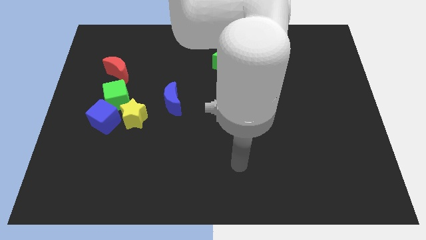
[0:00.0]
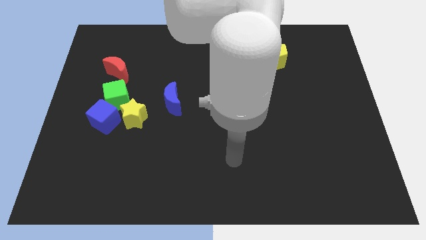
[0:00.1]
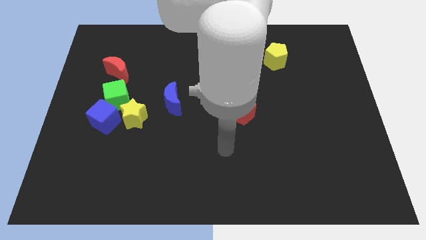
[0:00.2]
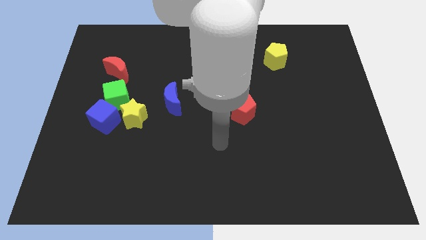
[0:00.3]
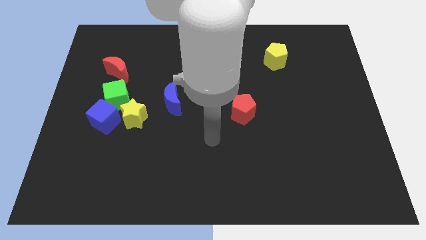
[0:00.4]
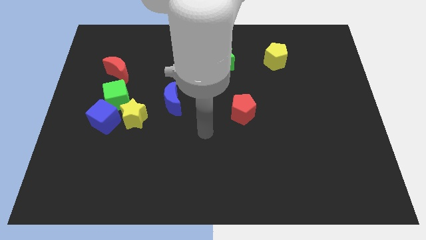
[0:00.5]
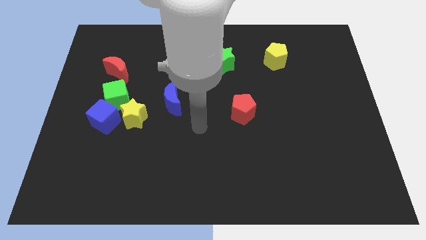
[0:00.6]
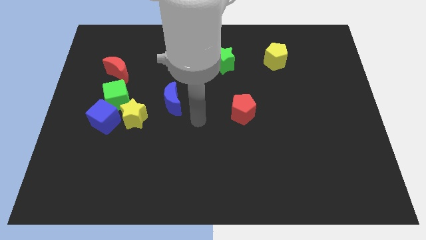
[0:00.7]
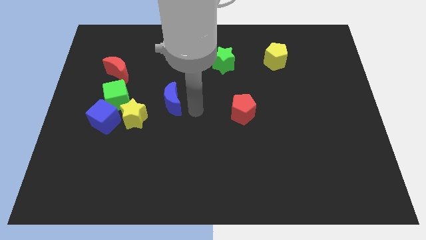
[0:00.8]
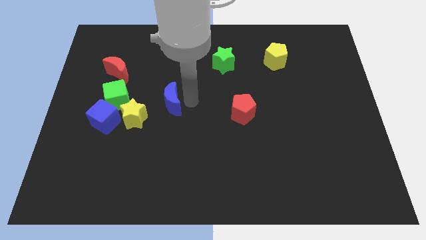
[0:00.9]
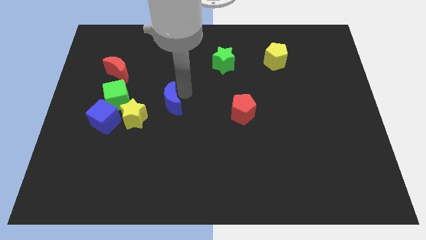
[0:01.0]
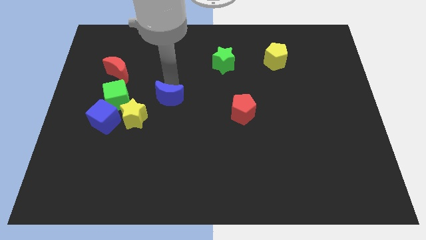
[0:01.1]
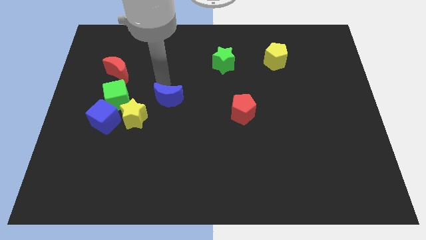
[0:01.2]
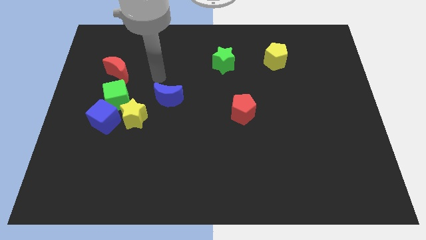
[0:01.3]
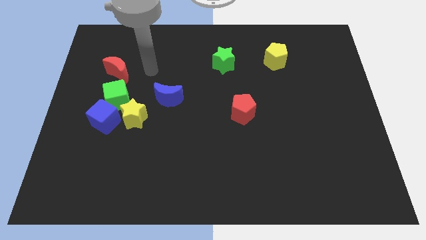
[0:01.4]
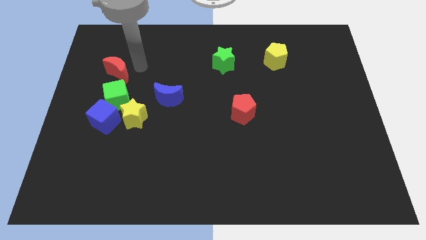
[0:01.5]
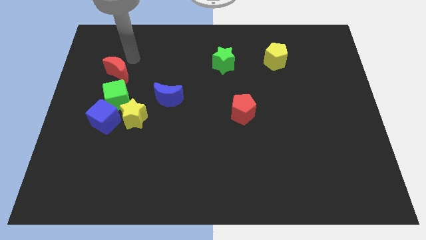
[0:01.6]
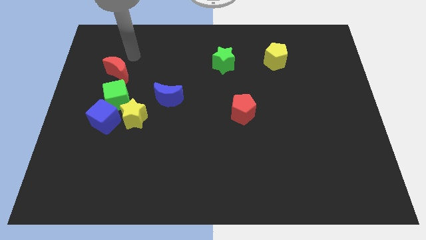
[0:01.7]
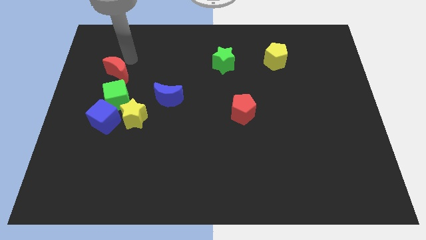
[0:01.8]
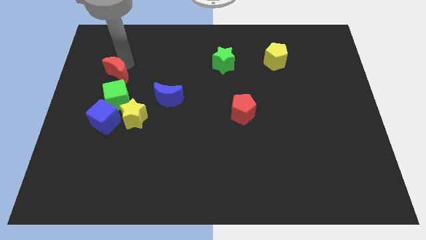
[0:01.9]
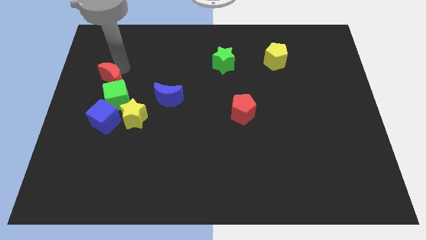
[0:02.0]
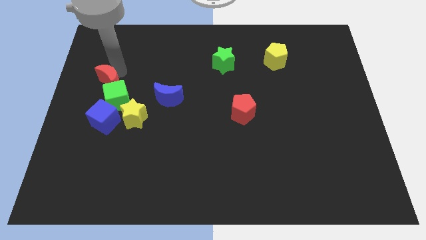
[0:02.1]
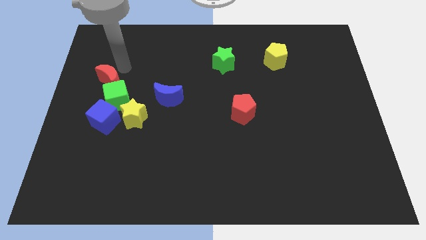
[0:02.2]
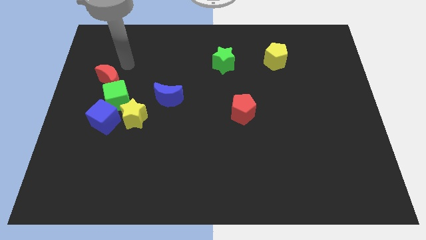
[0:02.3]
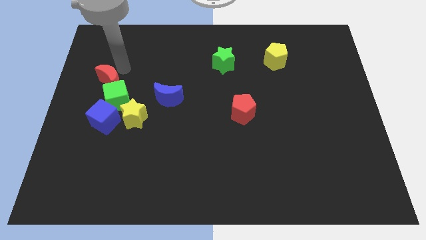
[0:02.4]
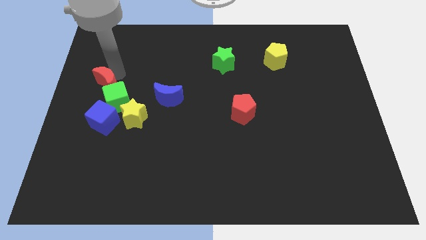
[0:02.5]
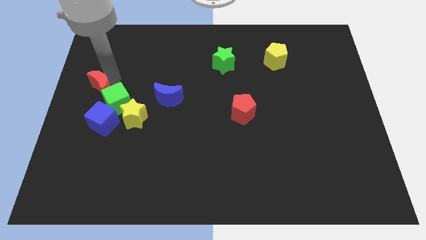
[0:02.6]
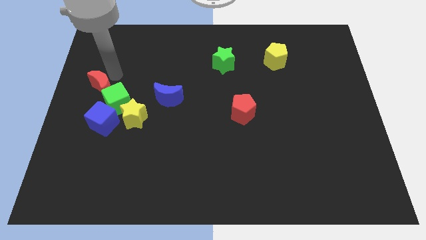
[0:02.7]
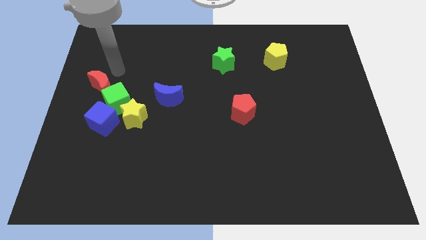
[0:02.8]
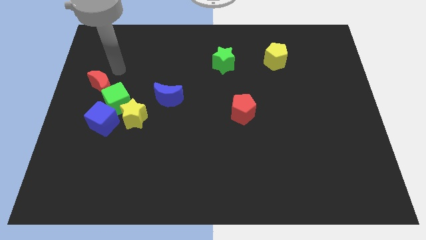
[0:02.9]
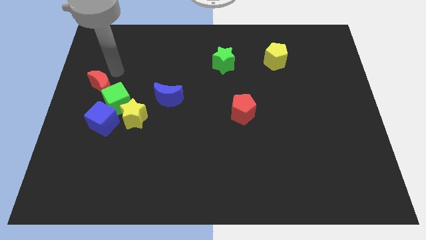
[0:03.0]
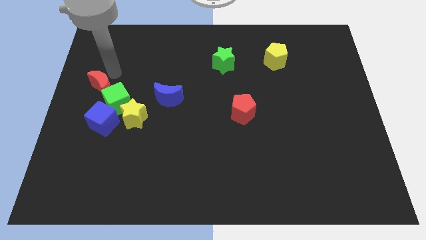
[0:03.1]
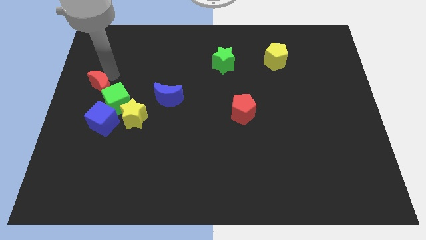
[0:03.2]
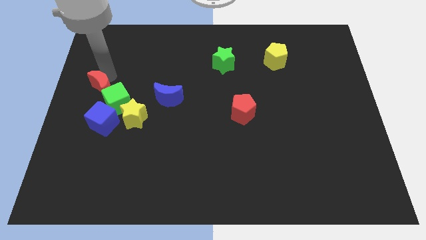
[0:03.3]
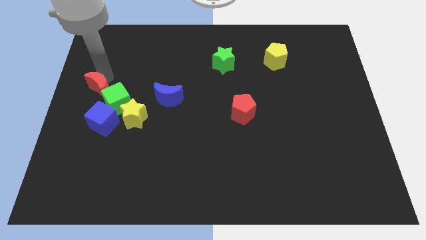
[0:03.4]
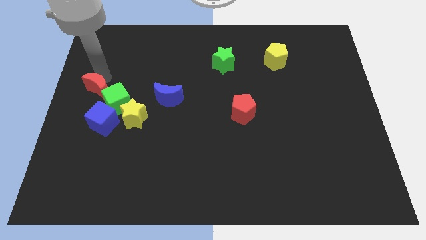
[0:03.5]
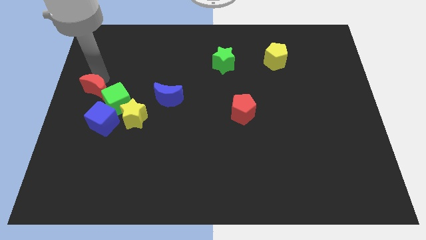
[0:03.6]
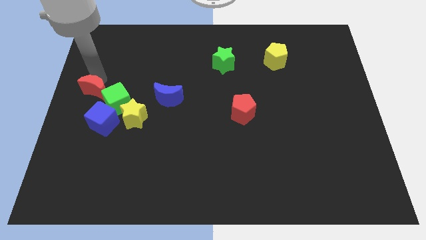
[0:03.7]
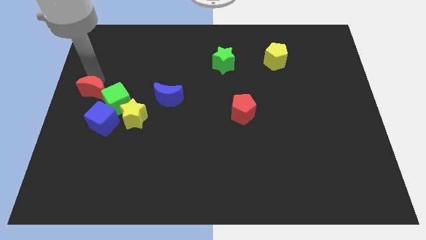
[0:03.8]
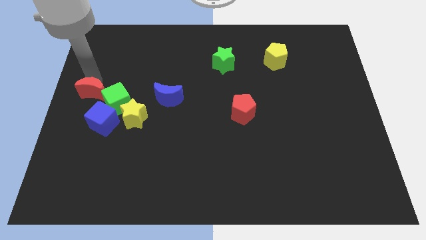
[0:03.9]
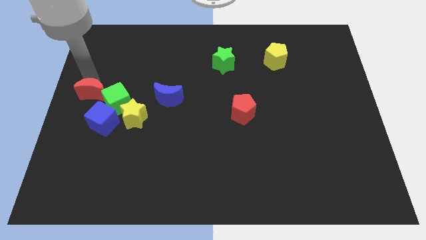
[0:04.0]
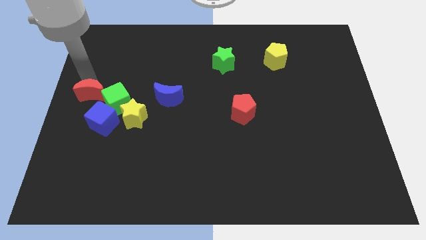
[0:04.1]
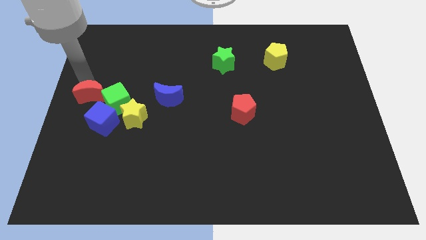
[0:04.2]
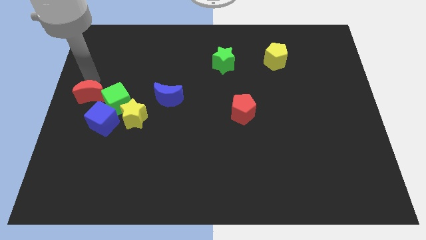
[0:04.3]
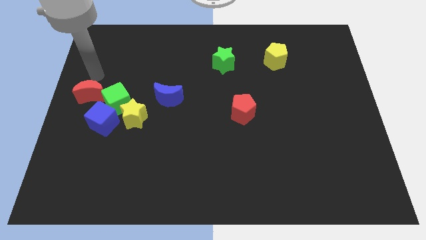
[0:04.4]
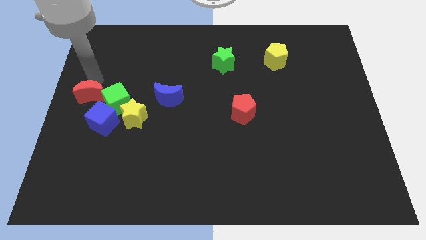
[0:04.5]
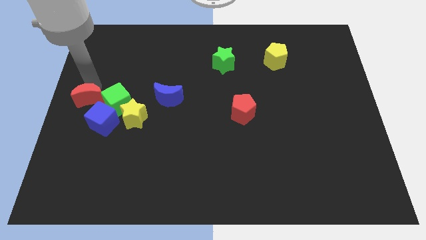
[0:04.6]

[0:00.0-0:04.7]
slide the red moon downwards a bit

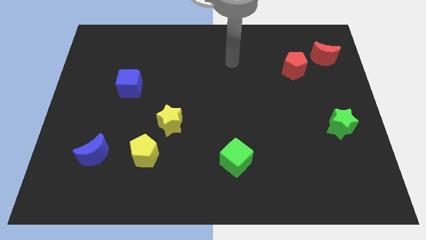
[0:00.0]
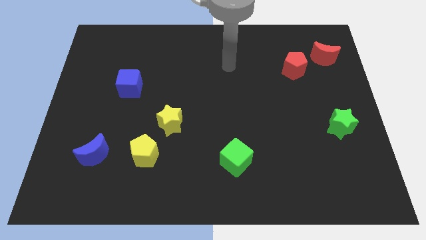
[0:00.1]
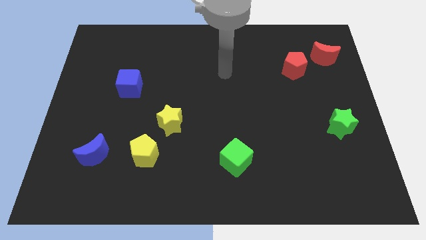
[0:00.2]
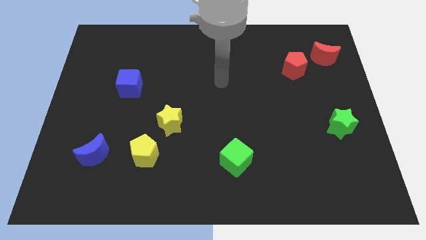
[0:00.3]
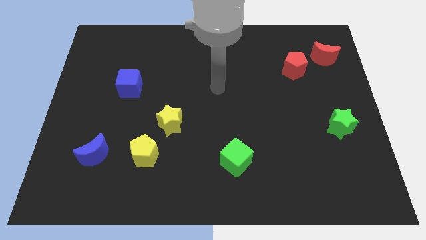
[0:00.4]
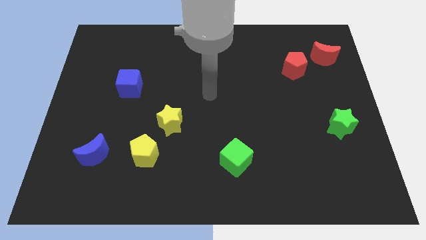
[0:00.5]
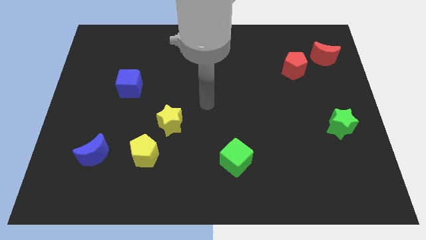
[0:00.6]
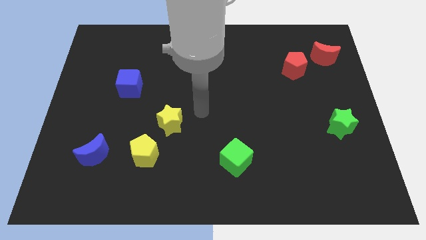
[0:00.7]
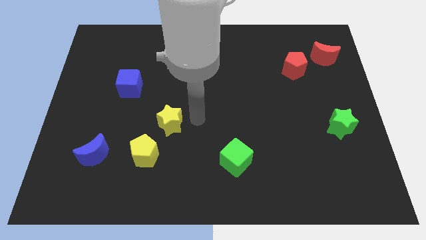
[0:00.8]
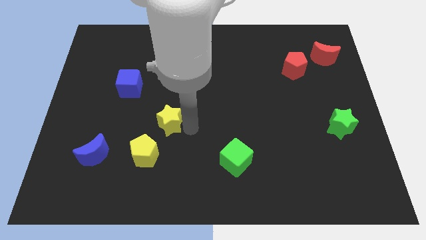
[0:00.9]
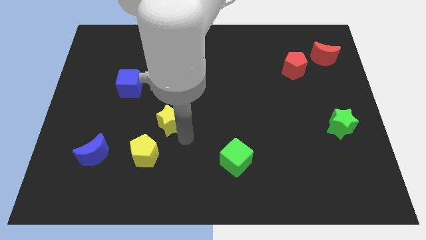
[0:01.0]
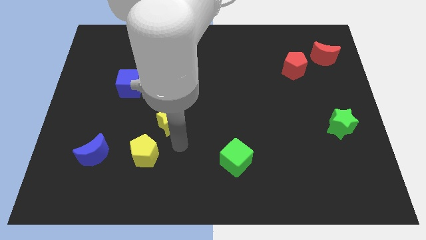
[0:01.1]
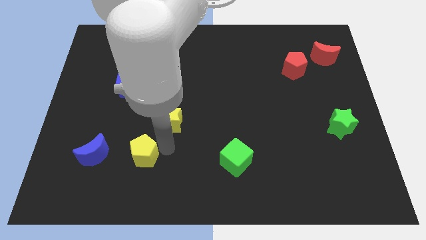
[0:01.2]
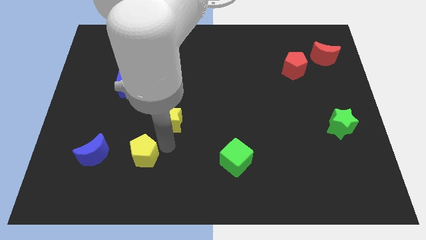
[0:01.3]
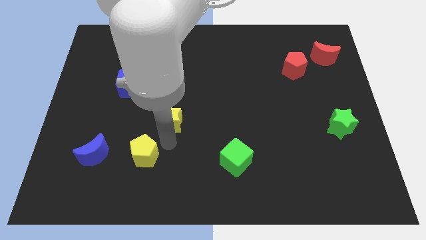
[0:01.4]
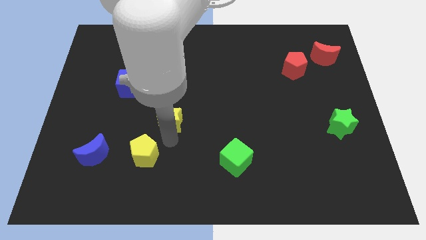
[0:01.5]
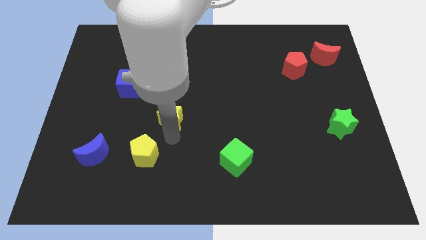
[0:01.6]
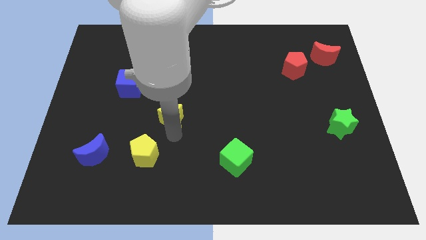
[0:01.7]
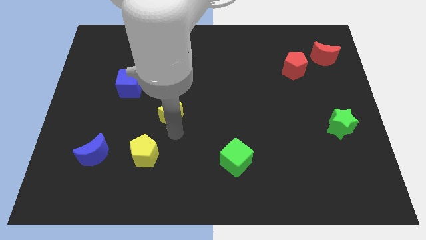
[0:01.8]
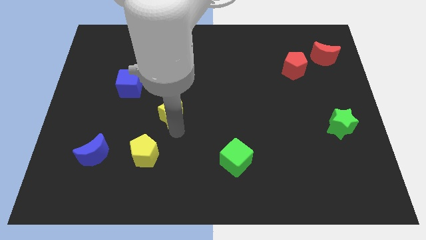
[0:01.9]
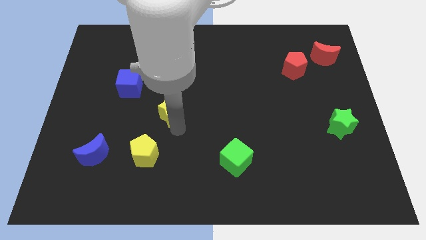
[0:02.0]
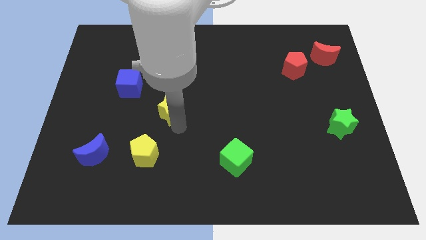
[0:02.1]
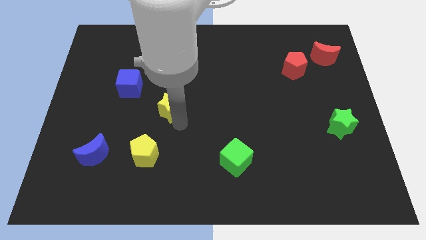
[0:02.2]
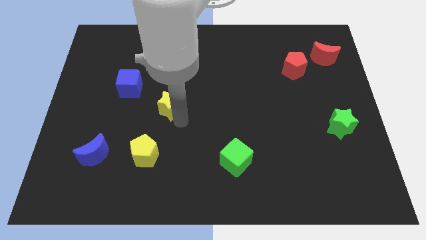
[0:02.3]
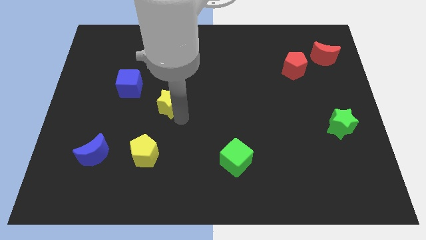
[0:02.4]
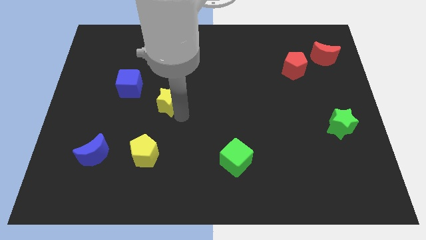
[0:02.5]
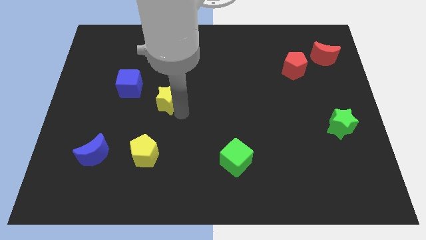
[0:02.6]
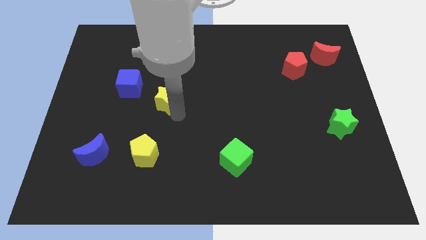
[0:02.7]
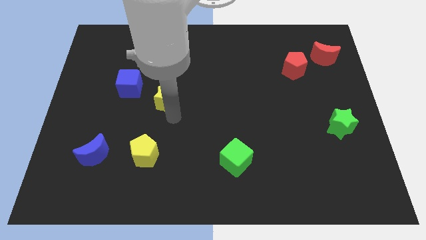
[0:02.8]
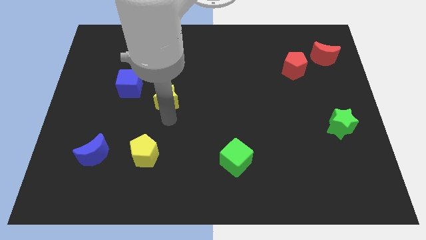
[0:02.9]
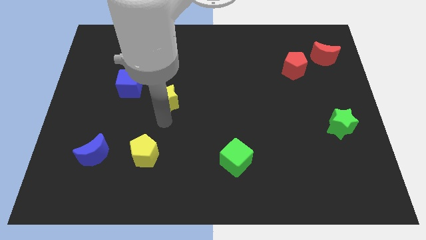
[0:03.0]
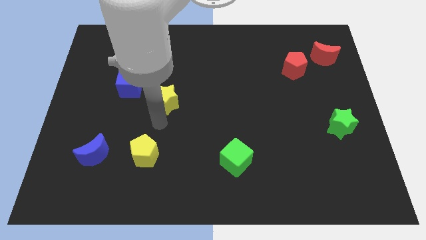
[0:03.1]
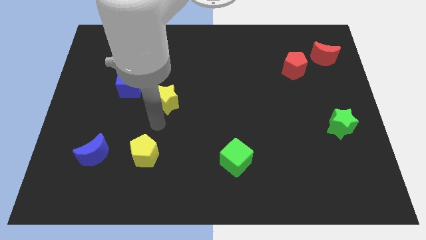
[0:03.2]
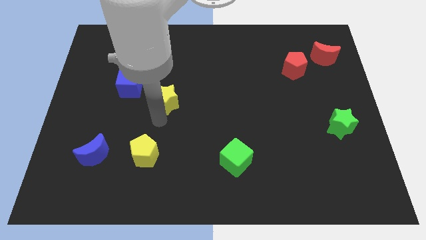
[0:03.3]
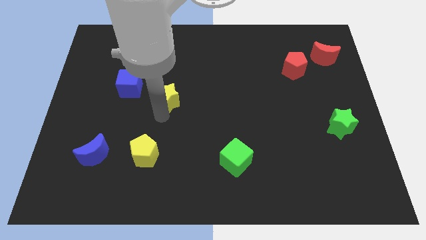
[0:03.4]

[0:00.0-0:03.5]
slide the yellow star somewhat up
